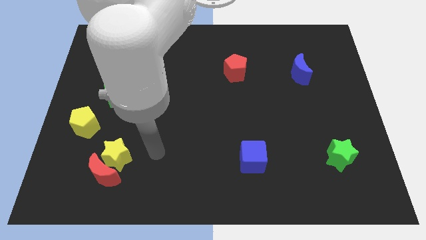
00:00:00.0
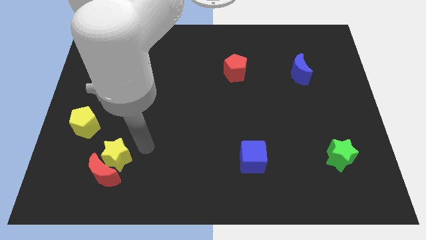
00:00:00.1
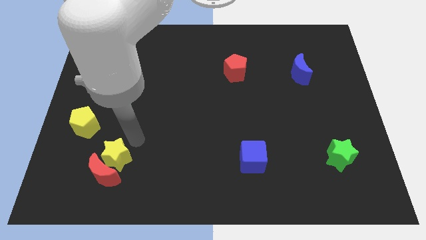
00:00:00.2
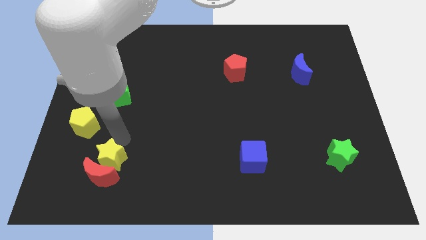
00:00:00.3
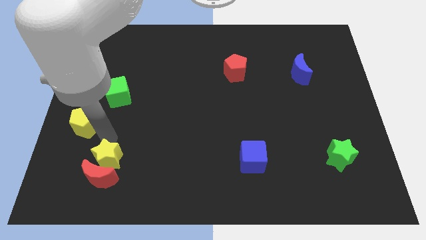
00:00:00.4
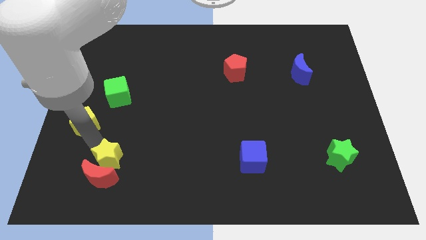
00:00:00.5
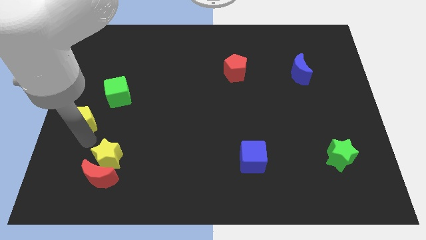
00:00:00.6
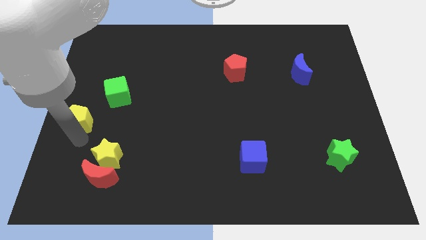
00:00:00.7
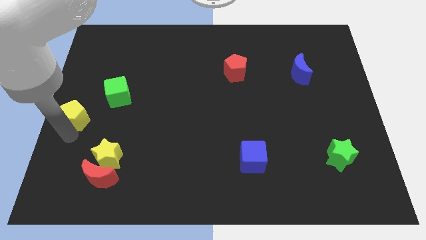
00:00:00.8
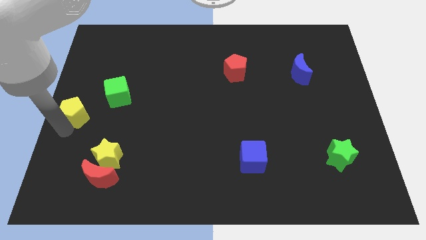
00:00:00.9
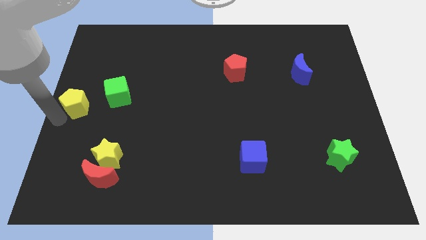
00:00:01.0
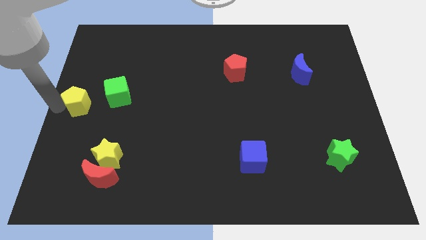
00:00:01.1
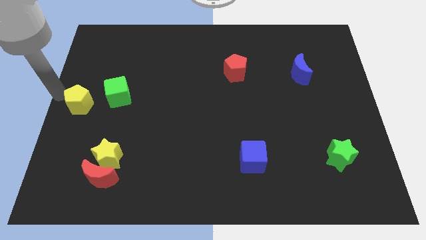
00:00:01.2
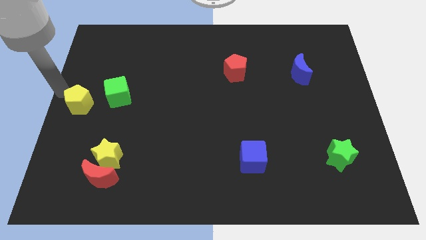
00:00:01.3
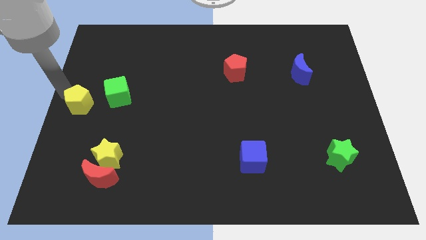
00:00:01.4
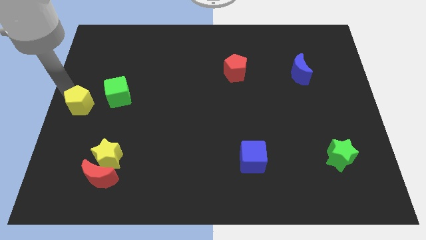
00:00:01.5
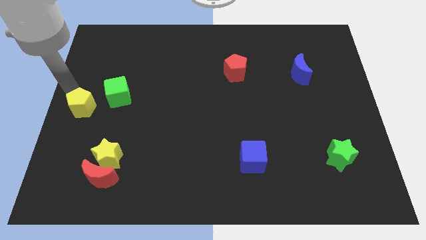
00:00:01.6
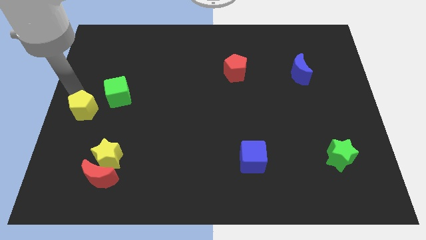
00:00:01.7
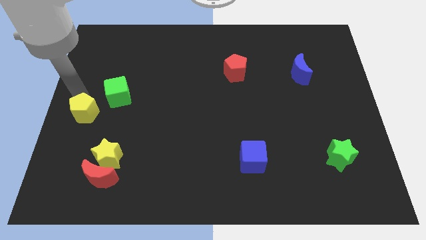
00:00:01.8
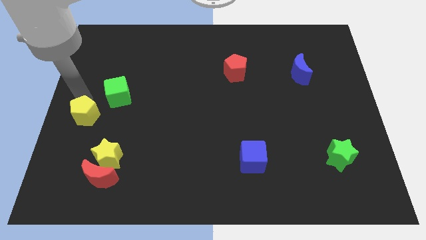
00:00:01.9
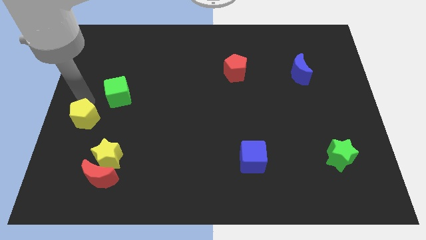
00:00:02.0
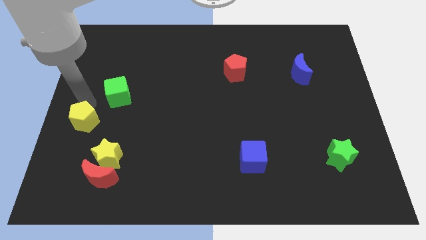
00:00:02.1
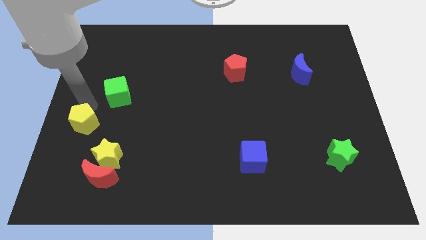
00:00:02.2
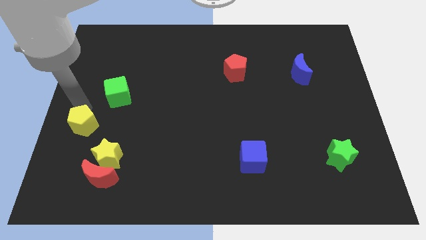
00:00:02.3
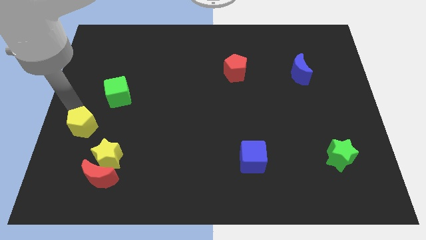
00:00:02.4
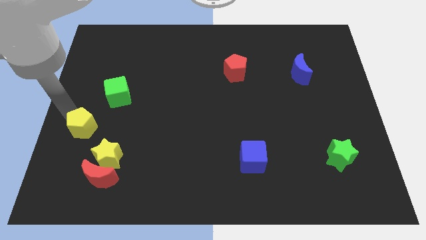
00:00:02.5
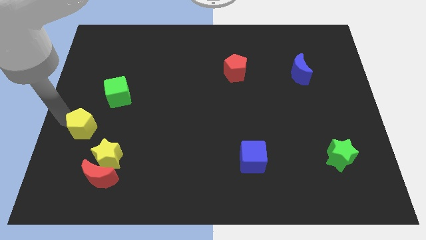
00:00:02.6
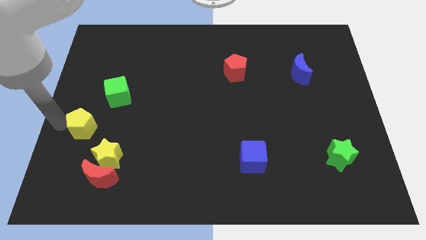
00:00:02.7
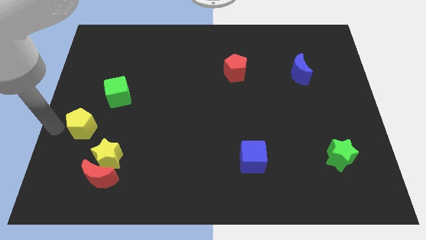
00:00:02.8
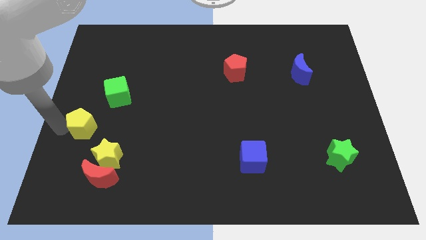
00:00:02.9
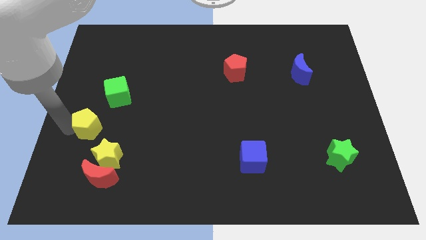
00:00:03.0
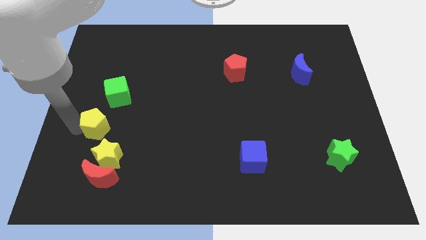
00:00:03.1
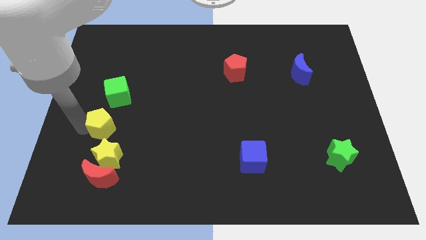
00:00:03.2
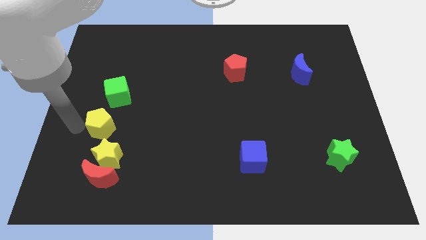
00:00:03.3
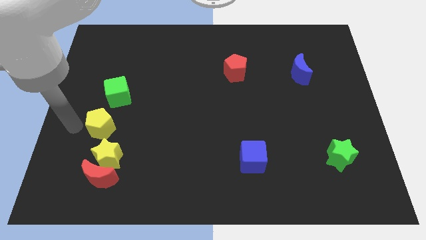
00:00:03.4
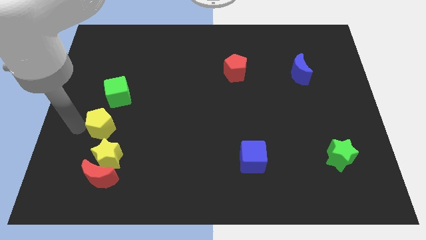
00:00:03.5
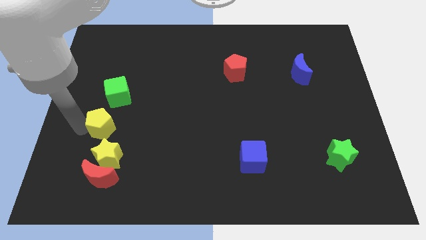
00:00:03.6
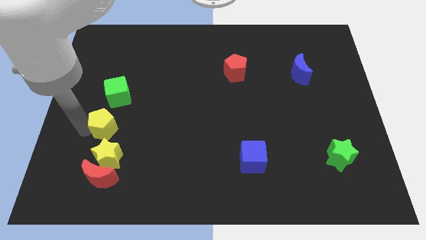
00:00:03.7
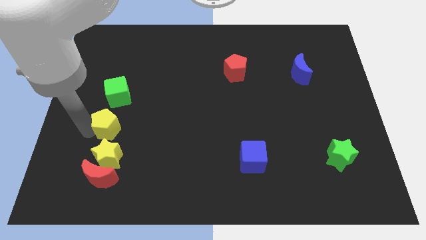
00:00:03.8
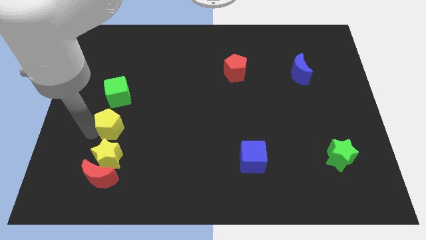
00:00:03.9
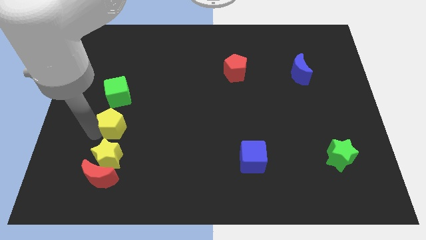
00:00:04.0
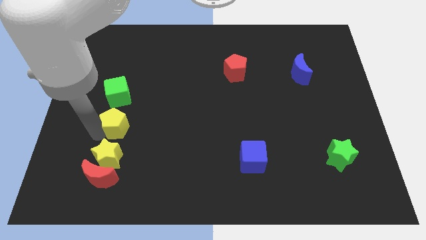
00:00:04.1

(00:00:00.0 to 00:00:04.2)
push the yellow pentagon somewhat to the right

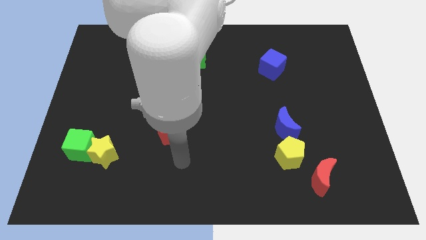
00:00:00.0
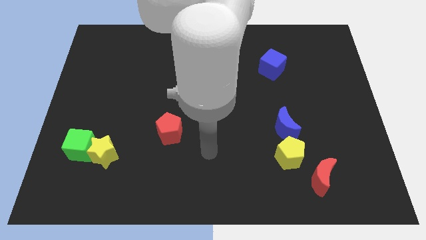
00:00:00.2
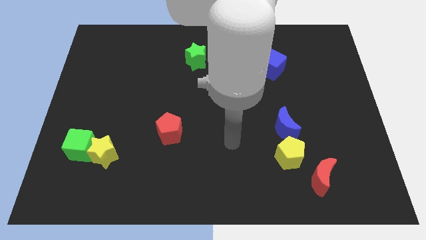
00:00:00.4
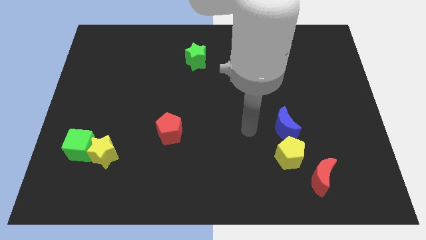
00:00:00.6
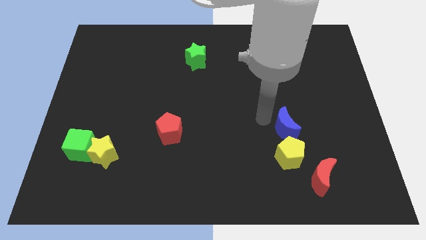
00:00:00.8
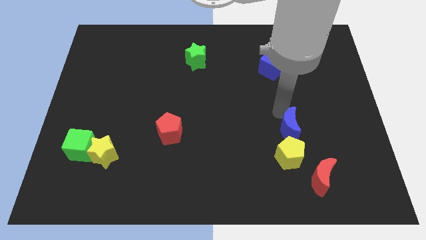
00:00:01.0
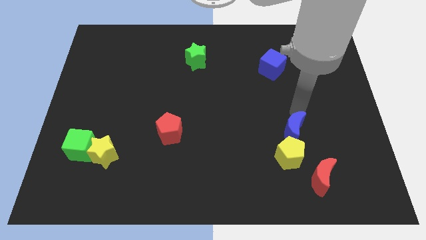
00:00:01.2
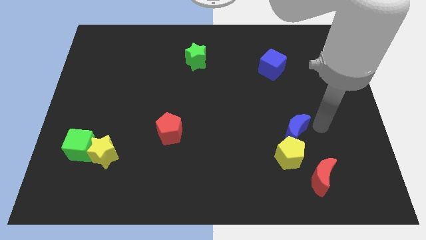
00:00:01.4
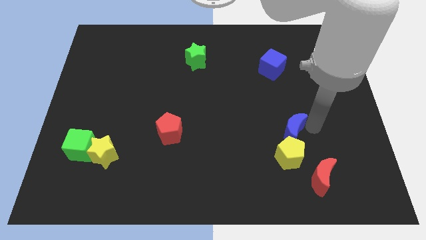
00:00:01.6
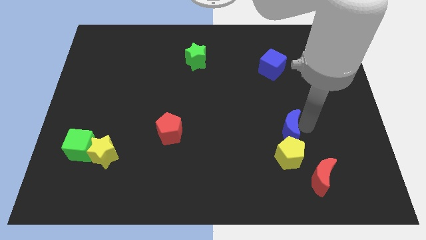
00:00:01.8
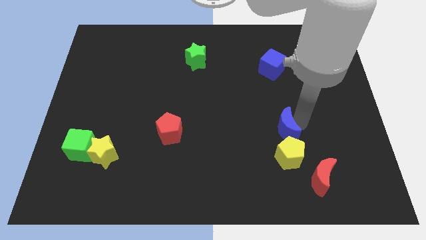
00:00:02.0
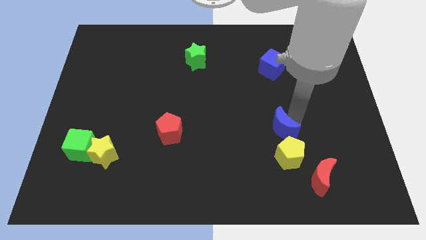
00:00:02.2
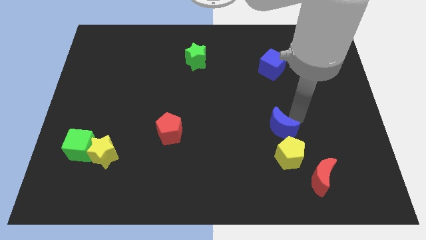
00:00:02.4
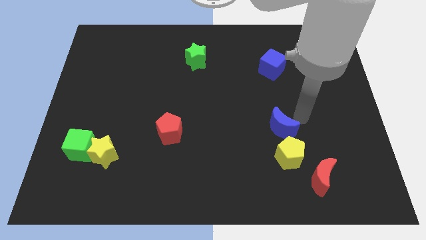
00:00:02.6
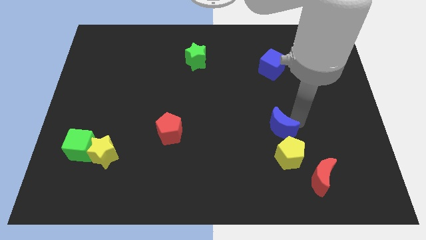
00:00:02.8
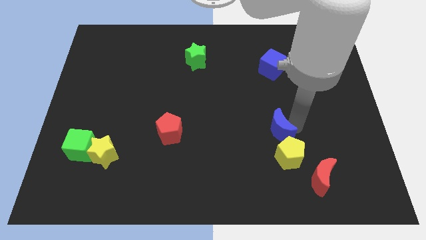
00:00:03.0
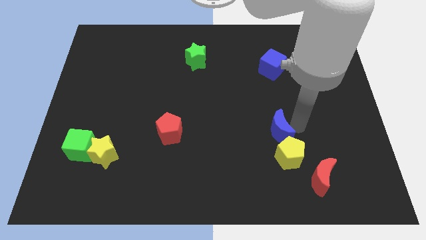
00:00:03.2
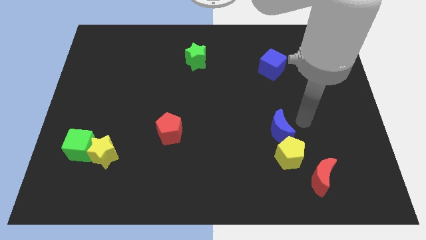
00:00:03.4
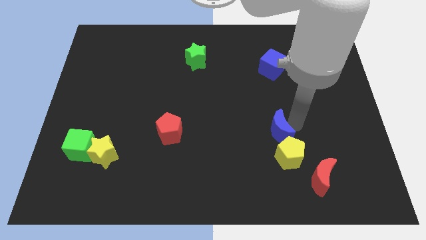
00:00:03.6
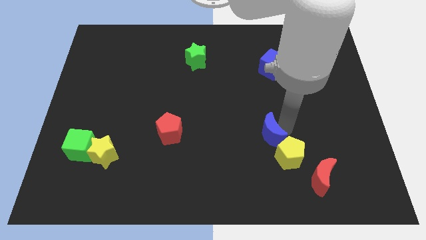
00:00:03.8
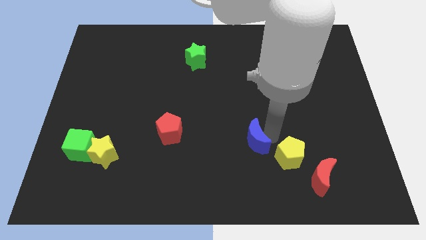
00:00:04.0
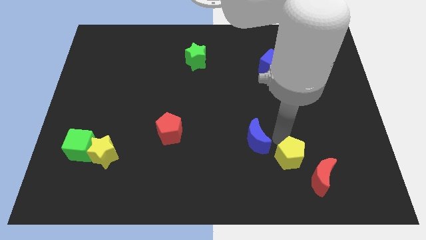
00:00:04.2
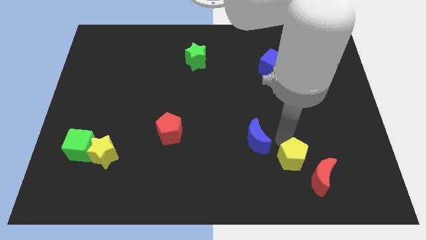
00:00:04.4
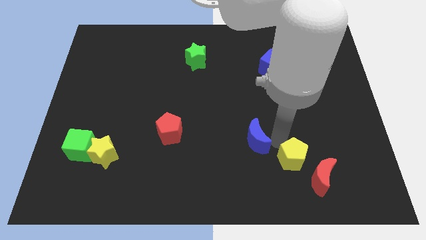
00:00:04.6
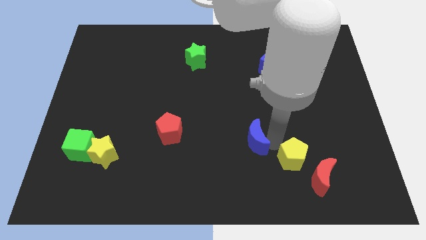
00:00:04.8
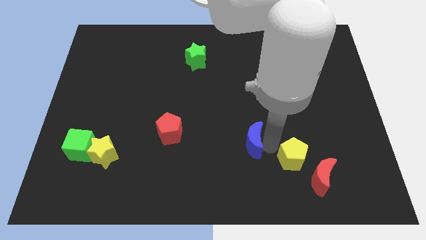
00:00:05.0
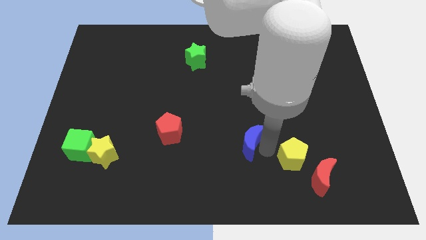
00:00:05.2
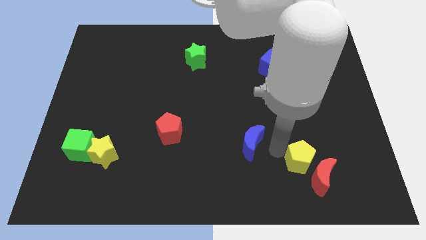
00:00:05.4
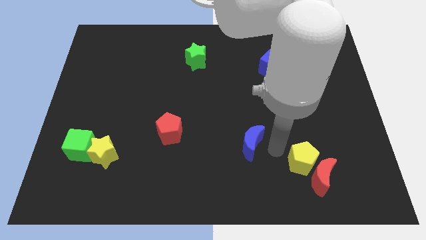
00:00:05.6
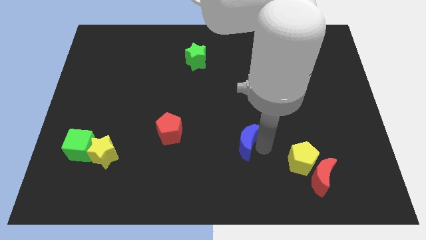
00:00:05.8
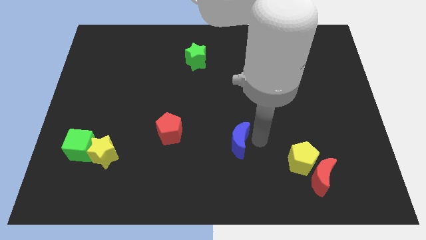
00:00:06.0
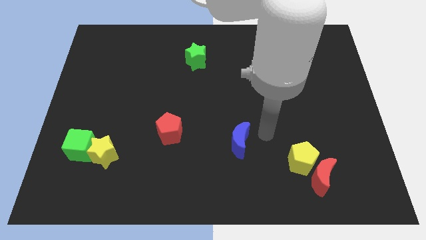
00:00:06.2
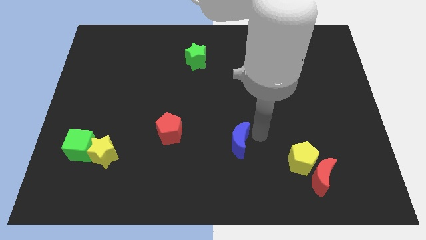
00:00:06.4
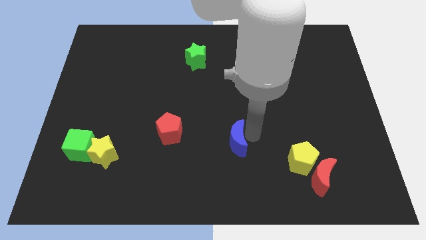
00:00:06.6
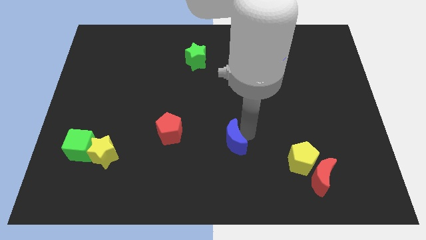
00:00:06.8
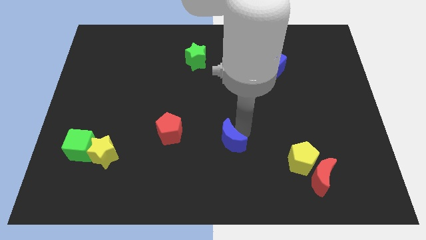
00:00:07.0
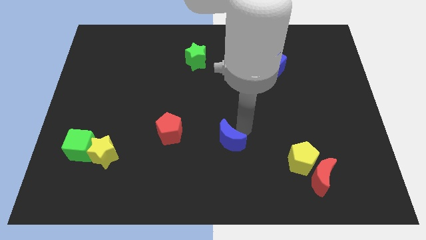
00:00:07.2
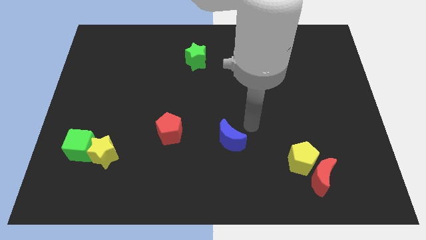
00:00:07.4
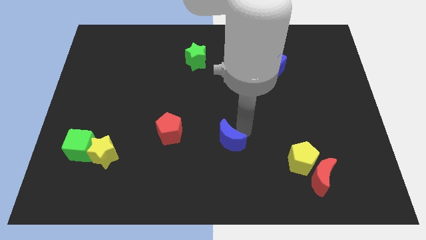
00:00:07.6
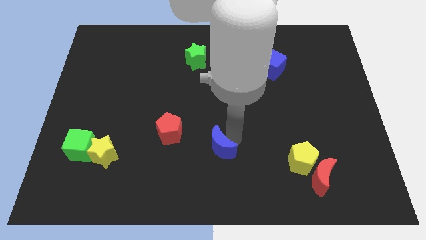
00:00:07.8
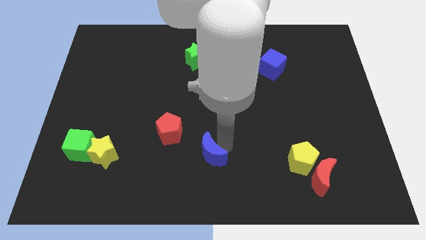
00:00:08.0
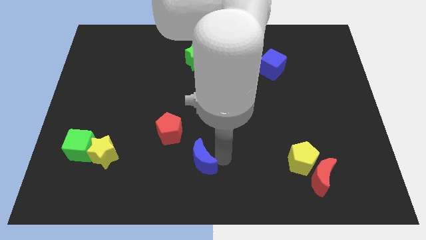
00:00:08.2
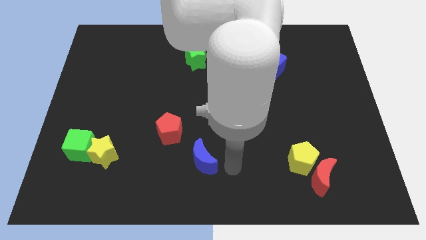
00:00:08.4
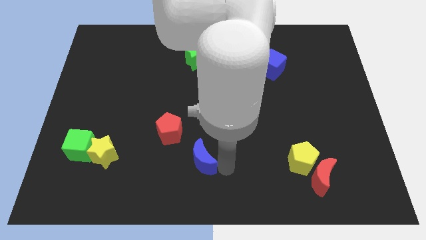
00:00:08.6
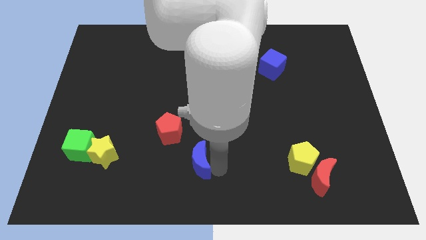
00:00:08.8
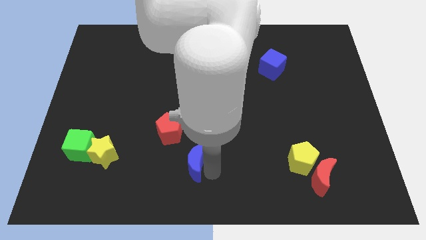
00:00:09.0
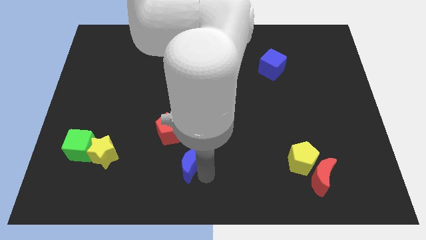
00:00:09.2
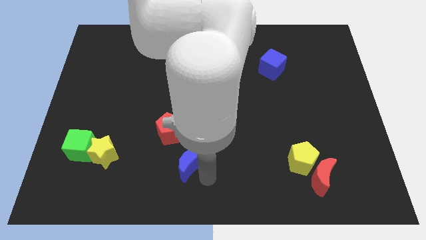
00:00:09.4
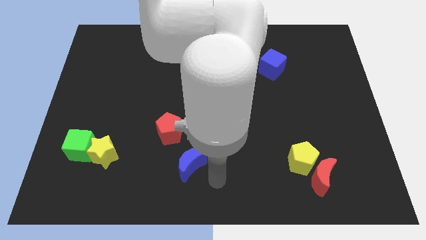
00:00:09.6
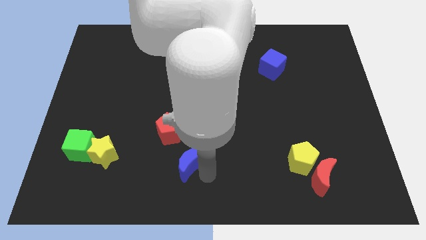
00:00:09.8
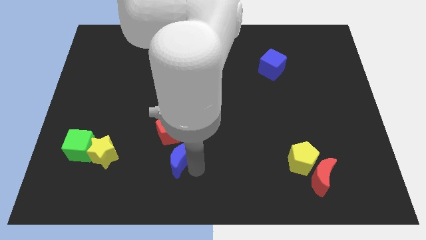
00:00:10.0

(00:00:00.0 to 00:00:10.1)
slide the blue moon to the left
